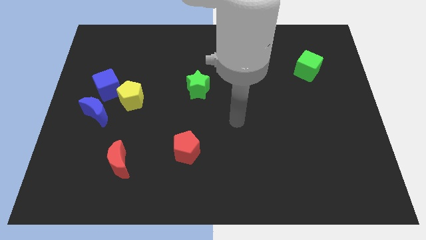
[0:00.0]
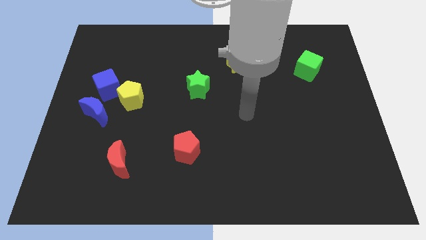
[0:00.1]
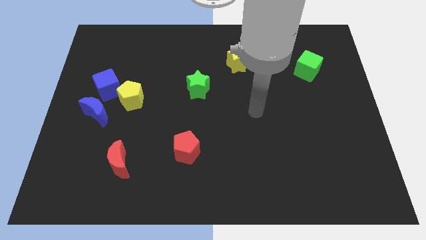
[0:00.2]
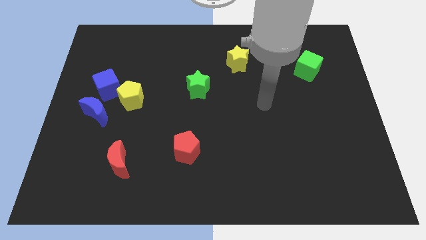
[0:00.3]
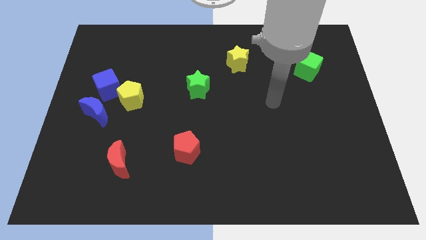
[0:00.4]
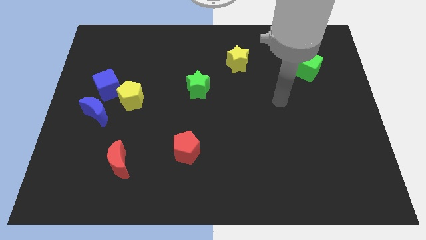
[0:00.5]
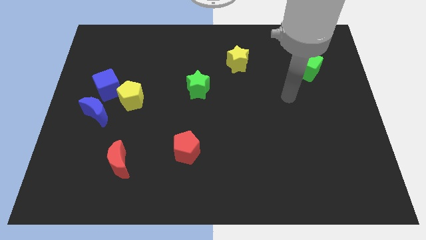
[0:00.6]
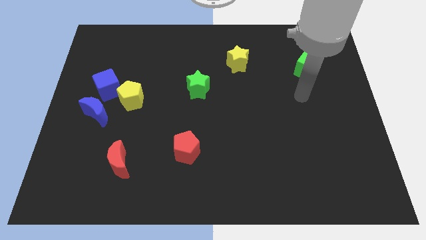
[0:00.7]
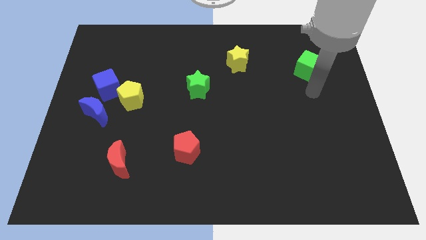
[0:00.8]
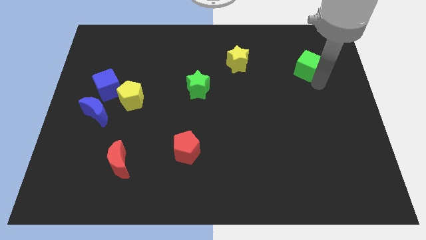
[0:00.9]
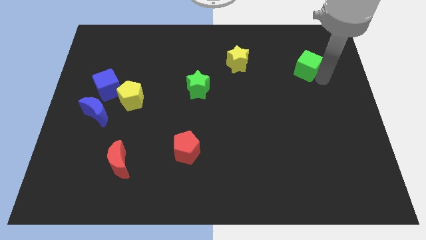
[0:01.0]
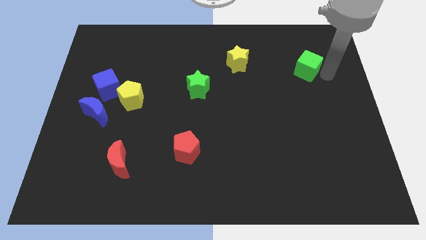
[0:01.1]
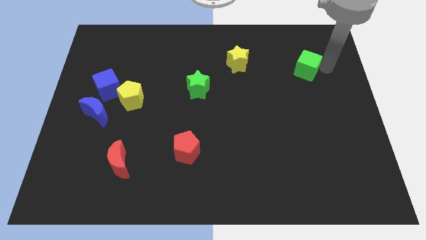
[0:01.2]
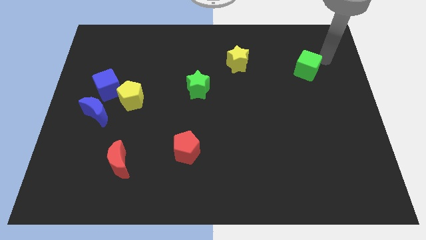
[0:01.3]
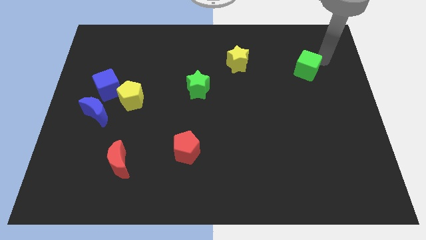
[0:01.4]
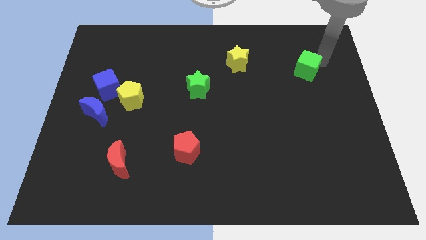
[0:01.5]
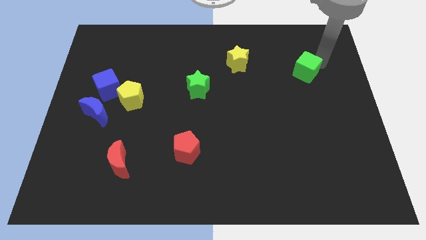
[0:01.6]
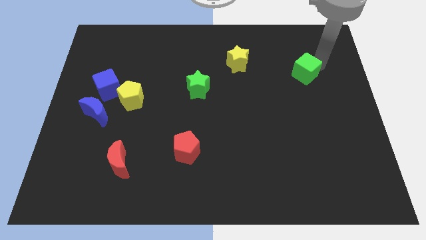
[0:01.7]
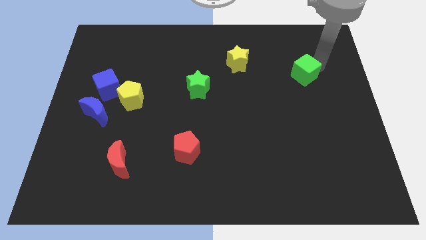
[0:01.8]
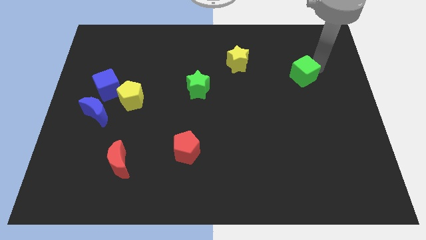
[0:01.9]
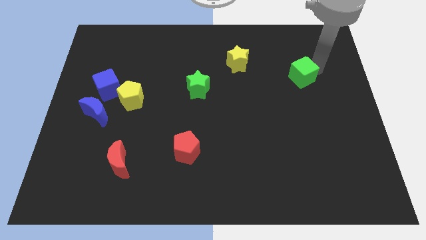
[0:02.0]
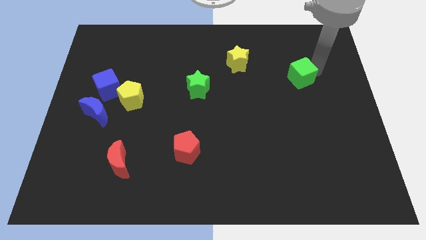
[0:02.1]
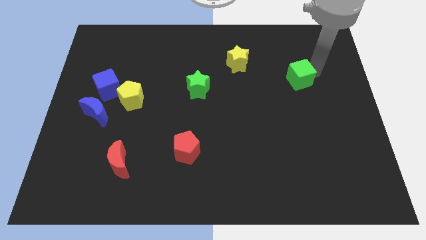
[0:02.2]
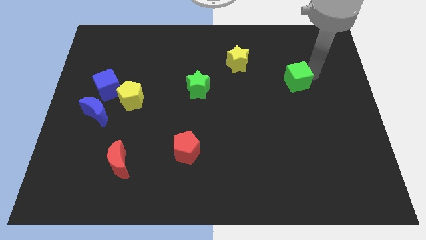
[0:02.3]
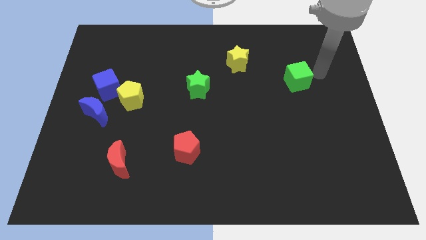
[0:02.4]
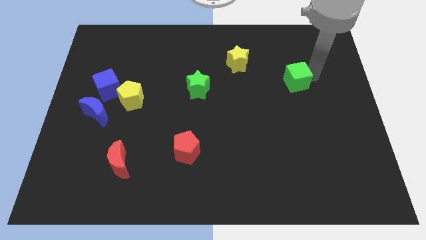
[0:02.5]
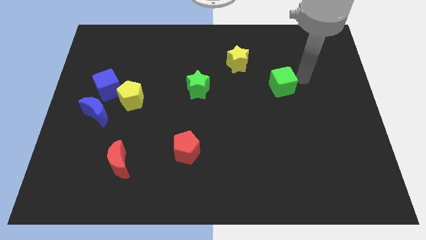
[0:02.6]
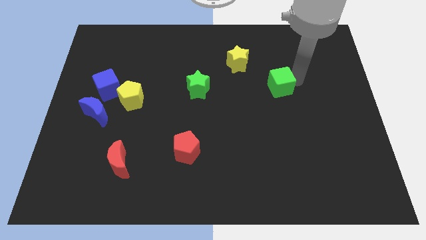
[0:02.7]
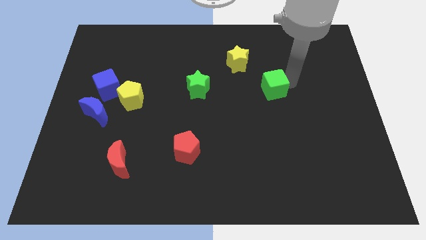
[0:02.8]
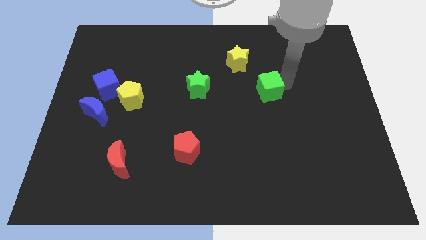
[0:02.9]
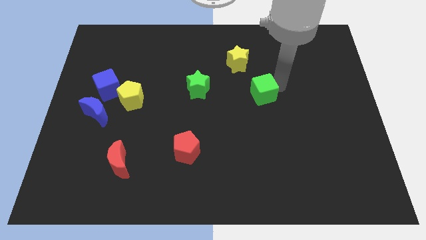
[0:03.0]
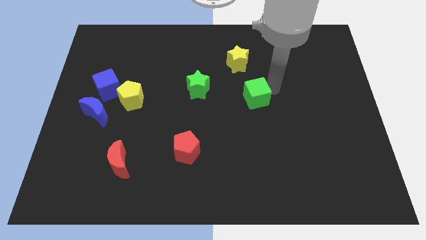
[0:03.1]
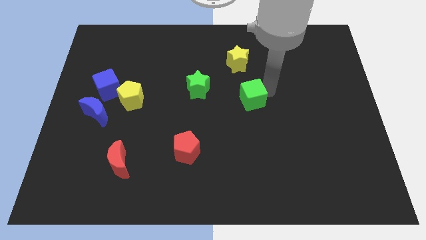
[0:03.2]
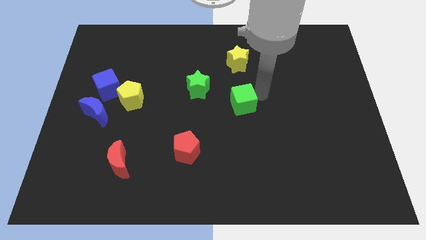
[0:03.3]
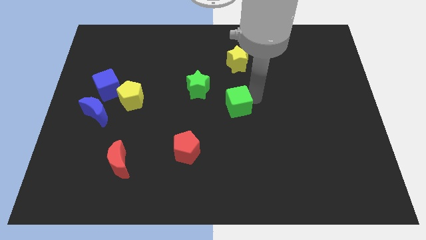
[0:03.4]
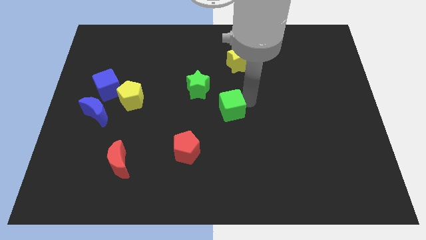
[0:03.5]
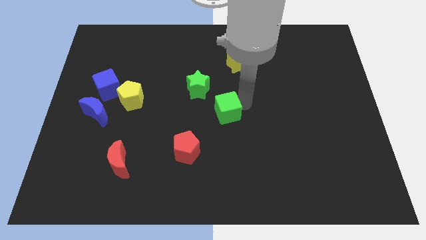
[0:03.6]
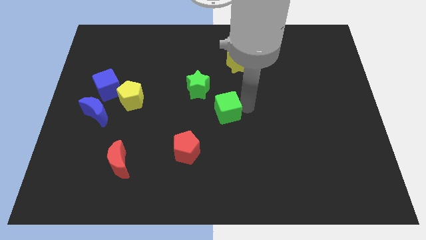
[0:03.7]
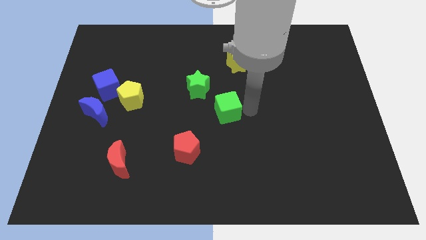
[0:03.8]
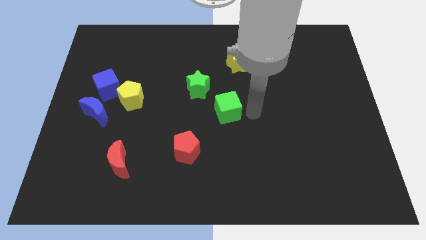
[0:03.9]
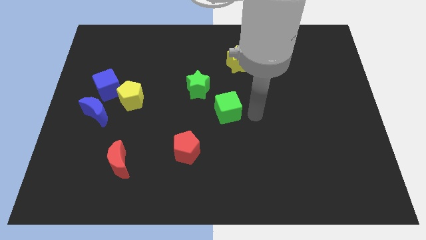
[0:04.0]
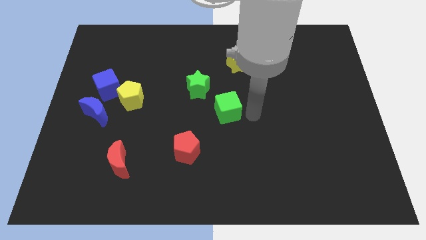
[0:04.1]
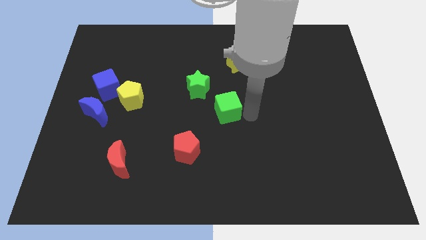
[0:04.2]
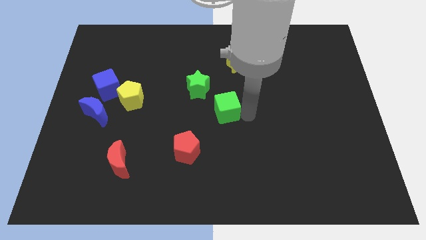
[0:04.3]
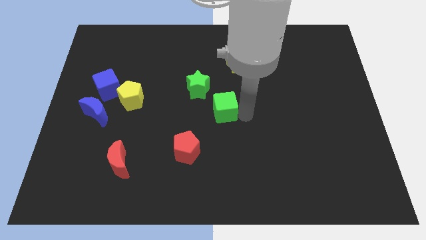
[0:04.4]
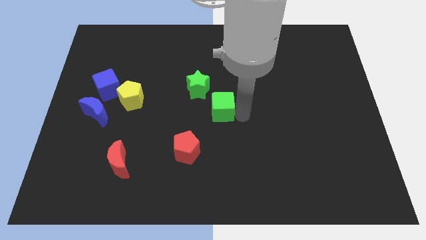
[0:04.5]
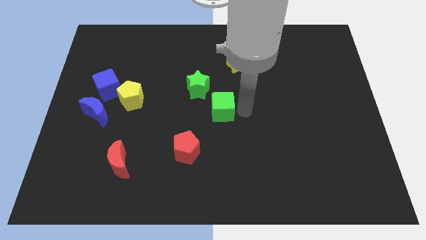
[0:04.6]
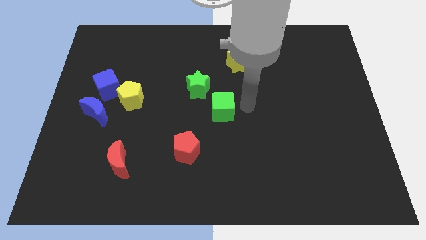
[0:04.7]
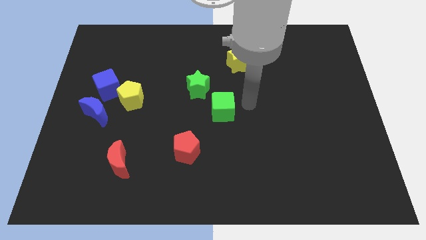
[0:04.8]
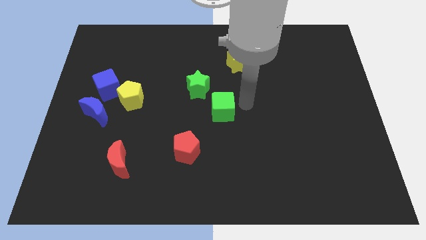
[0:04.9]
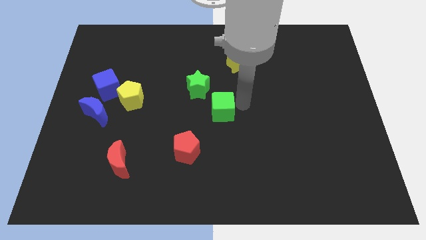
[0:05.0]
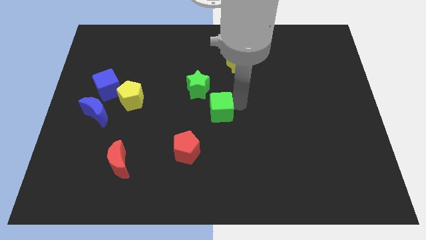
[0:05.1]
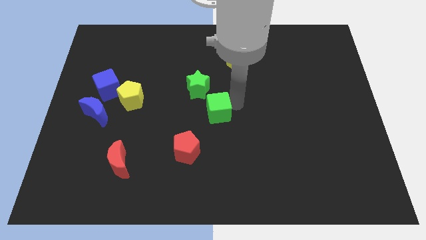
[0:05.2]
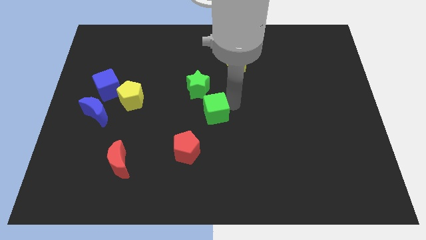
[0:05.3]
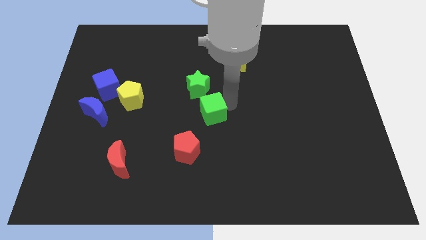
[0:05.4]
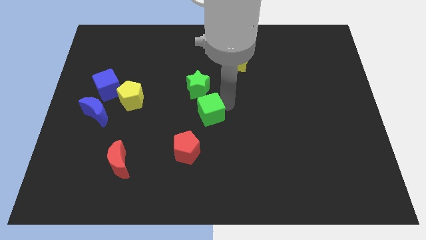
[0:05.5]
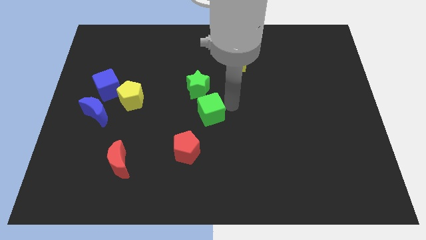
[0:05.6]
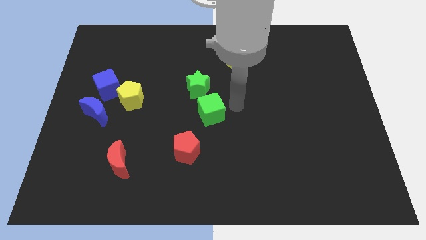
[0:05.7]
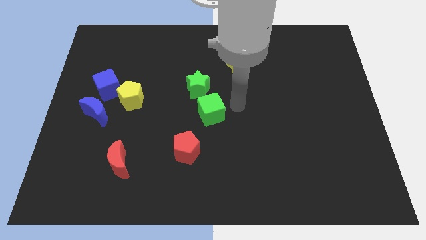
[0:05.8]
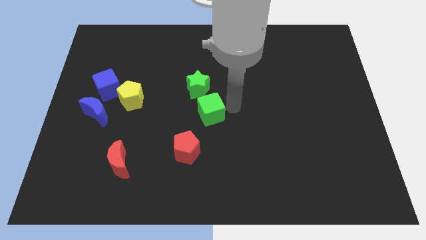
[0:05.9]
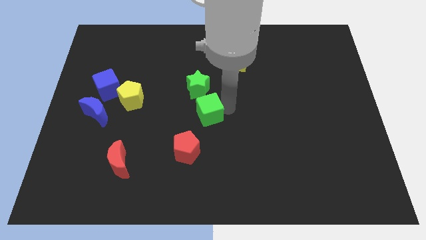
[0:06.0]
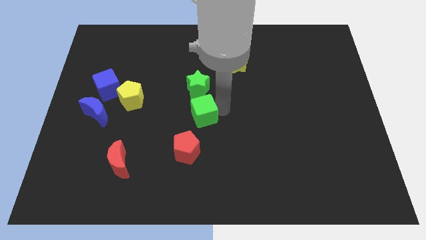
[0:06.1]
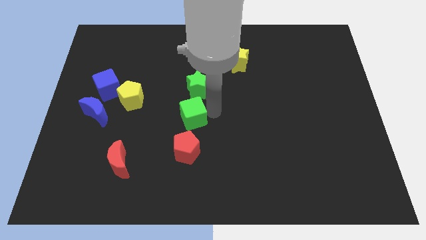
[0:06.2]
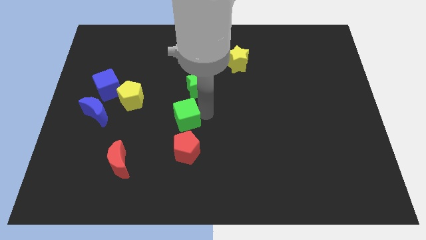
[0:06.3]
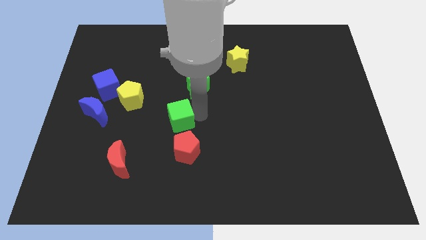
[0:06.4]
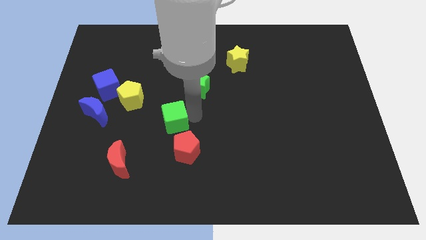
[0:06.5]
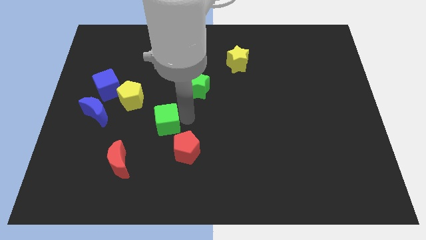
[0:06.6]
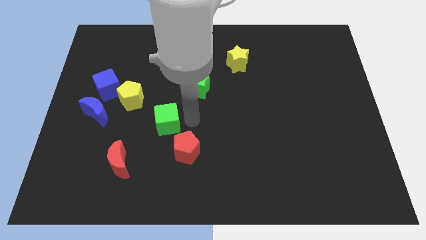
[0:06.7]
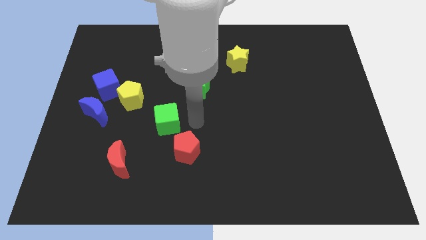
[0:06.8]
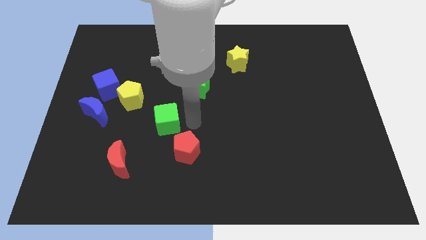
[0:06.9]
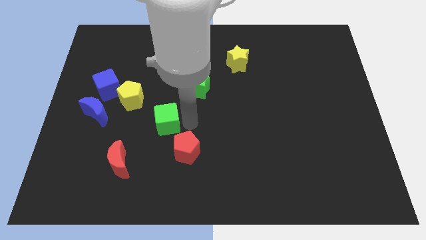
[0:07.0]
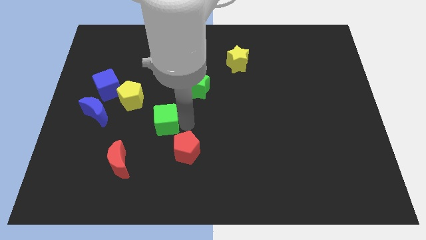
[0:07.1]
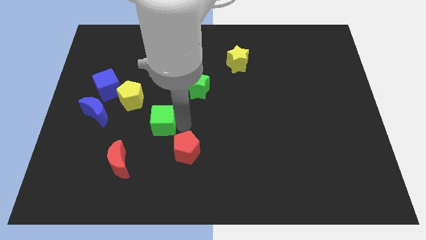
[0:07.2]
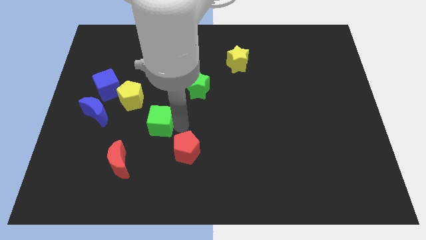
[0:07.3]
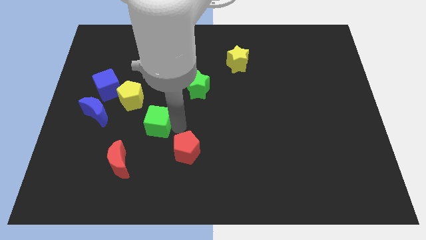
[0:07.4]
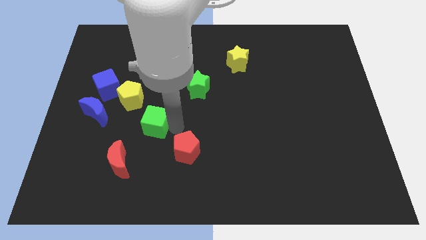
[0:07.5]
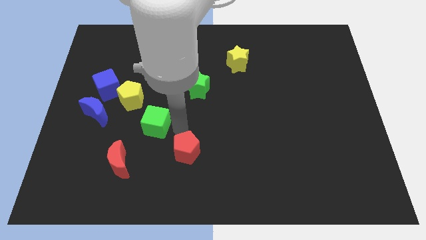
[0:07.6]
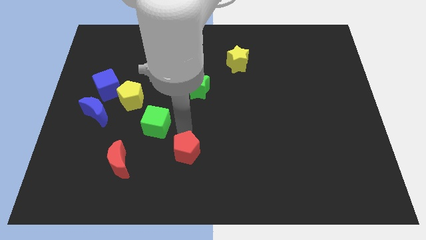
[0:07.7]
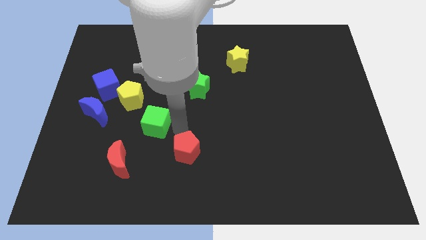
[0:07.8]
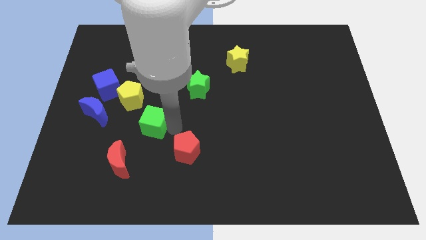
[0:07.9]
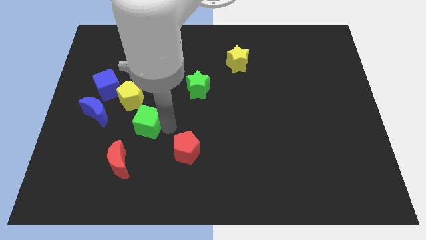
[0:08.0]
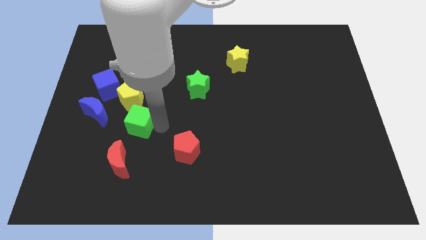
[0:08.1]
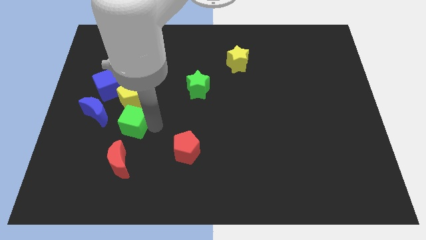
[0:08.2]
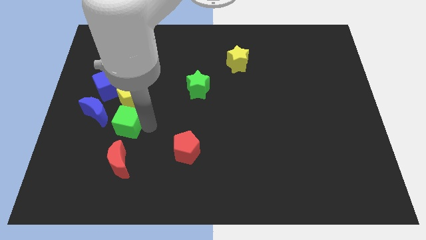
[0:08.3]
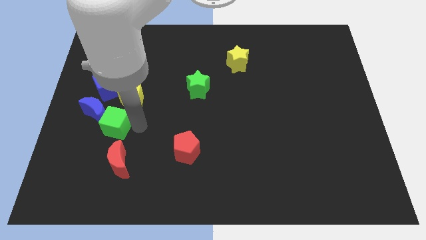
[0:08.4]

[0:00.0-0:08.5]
slide the green cube next to the blue moon
